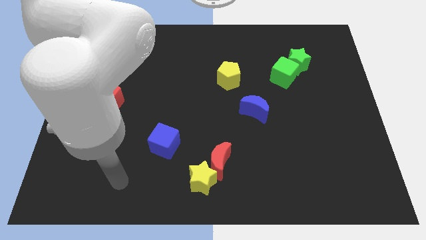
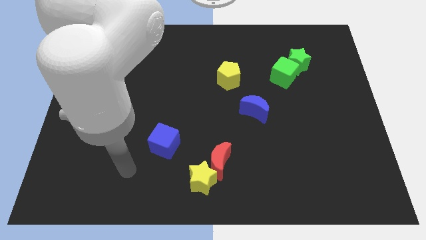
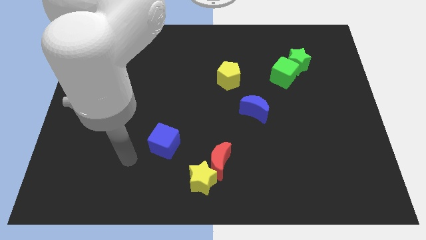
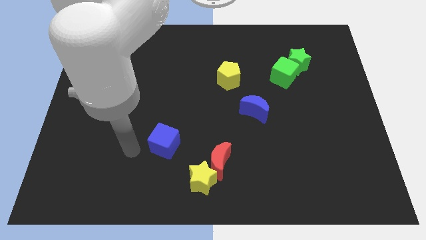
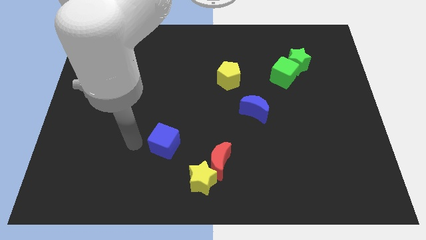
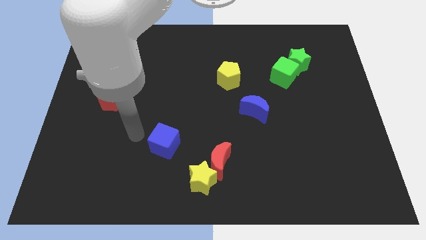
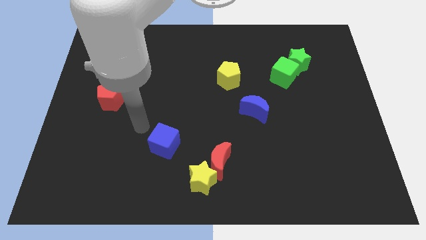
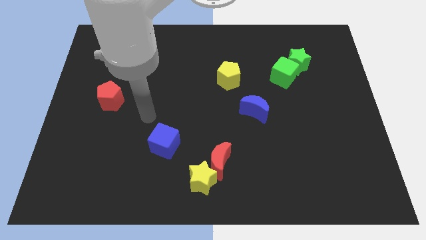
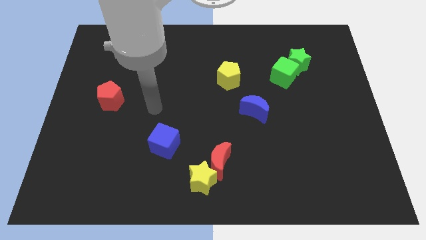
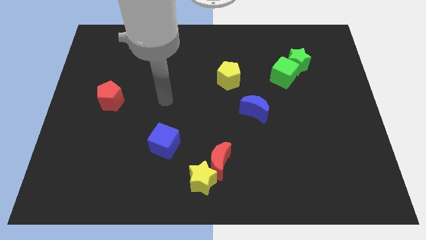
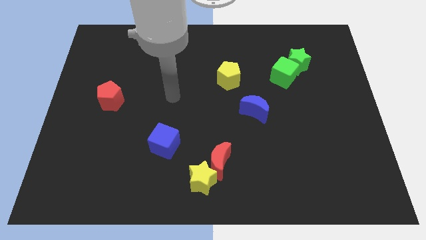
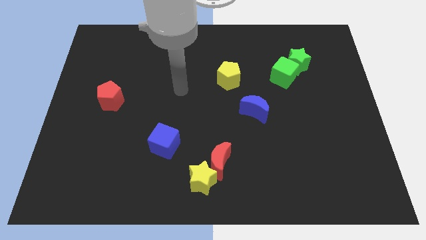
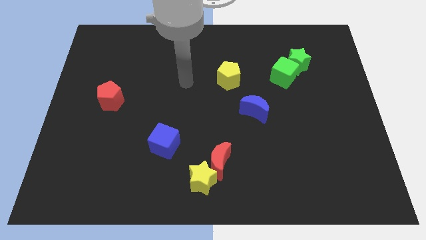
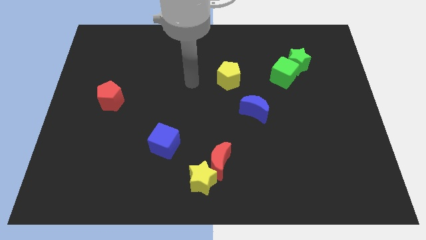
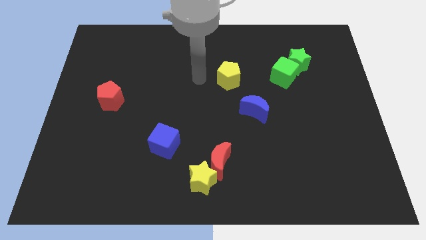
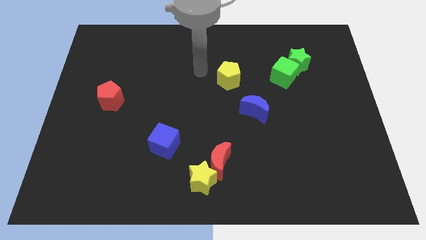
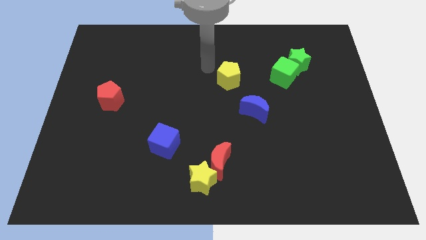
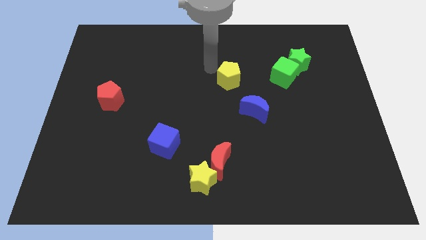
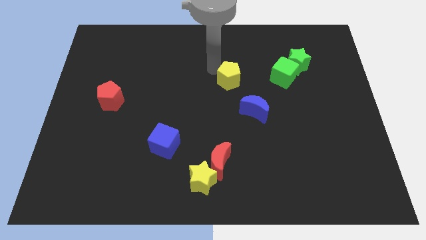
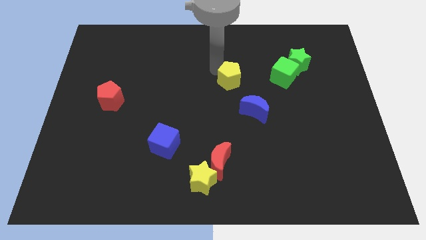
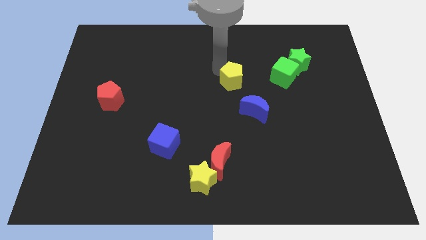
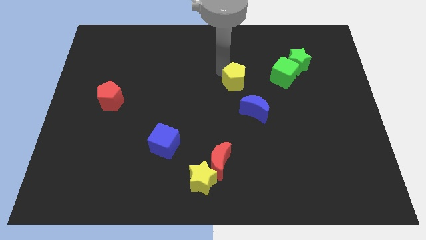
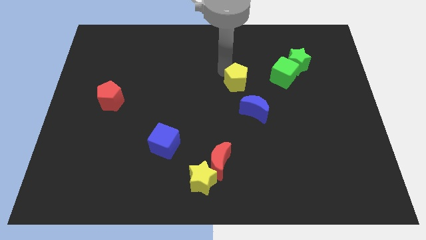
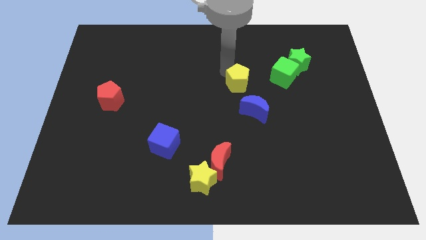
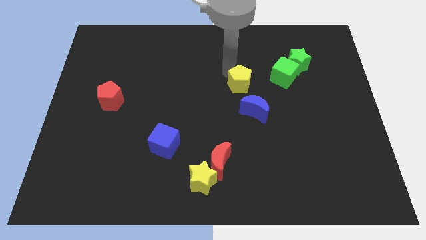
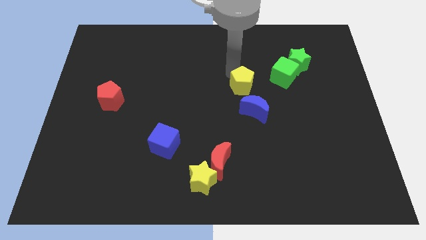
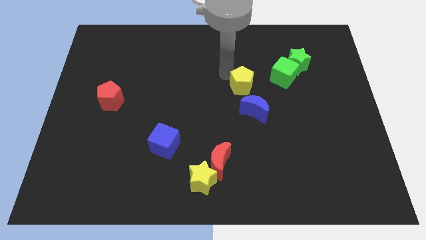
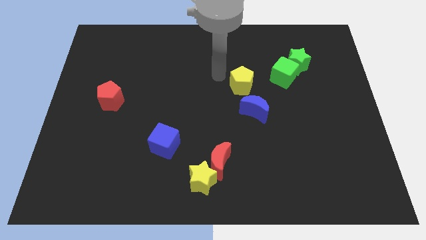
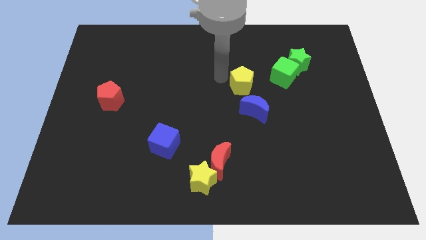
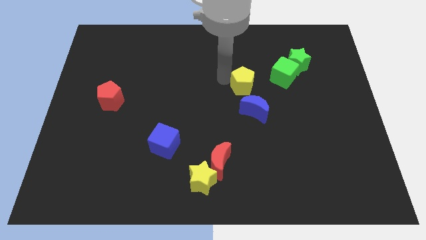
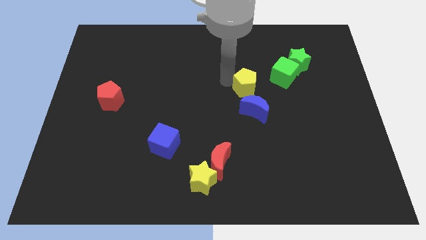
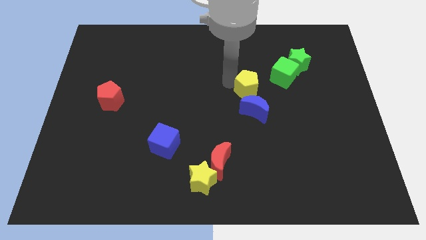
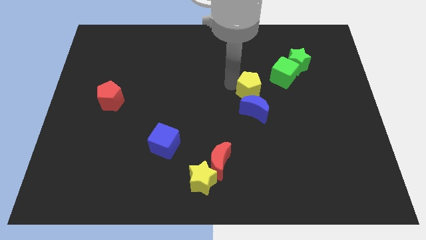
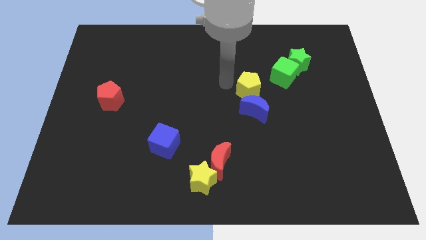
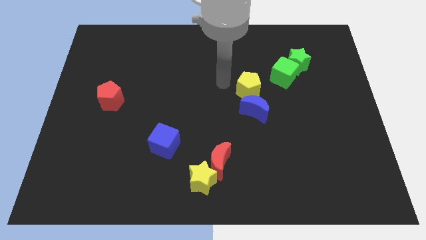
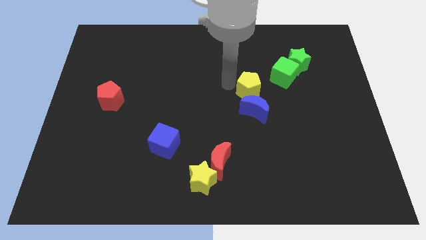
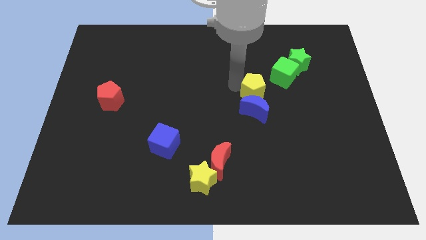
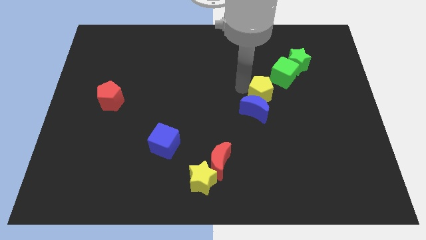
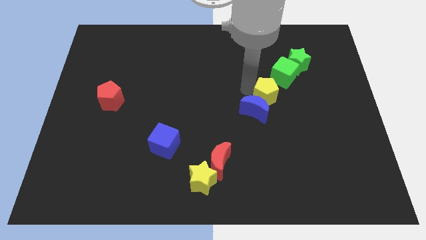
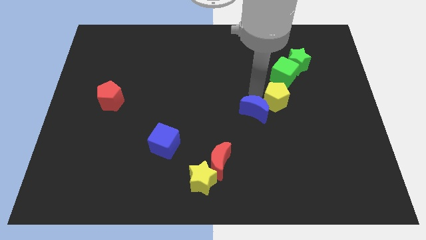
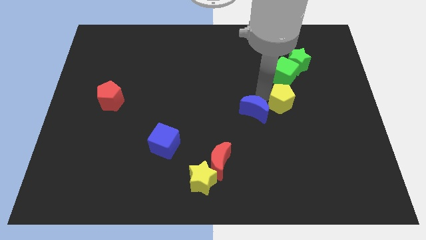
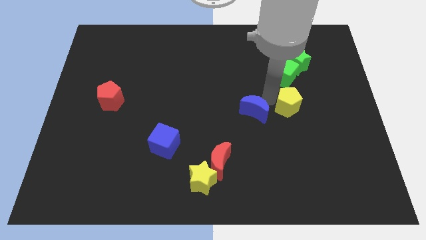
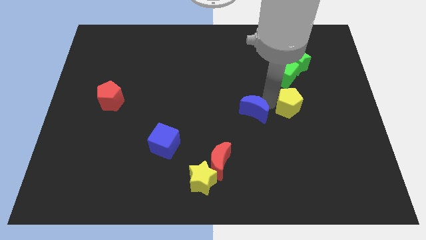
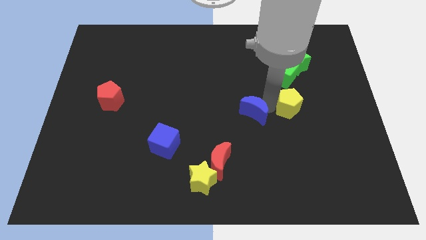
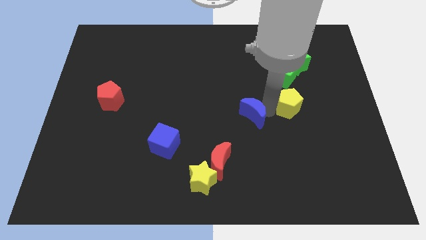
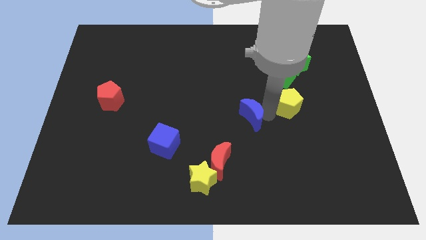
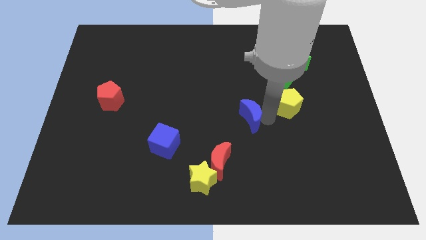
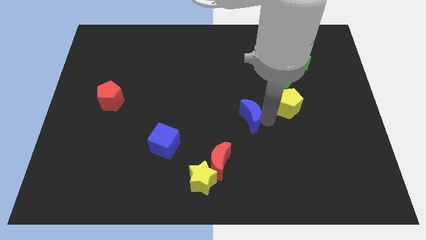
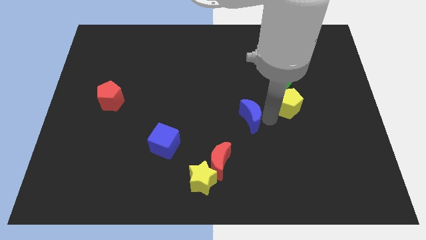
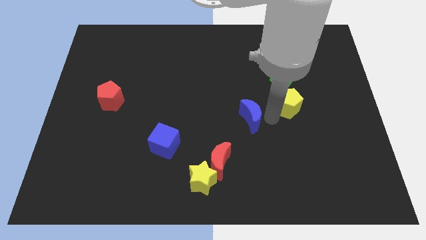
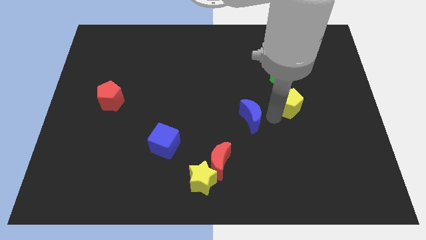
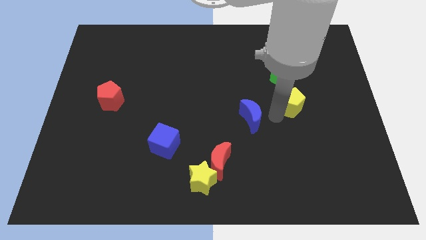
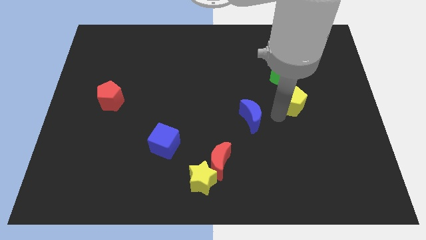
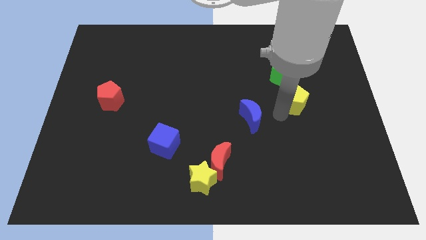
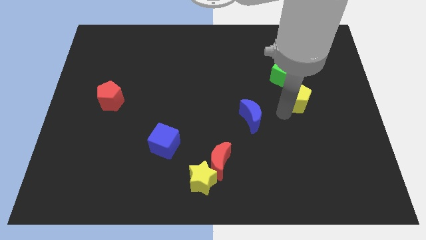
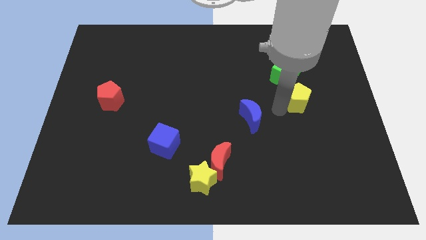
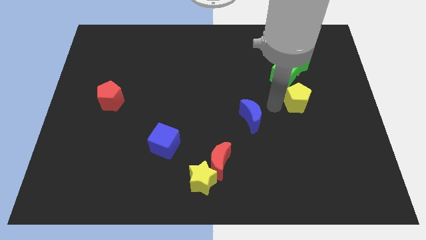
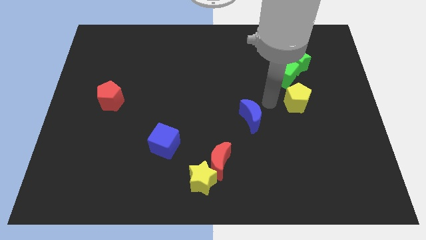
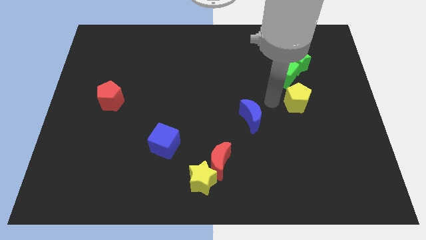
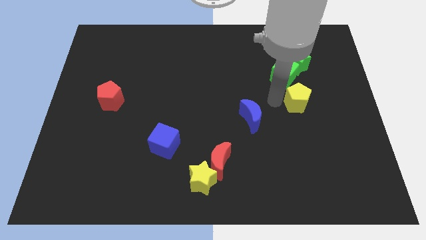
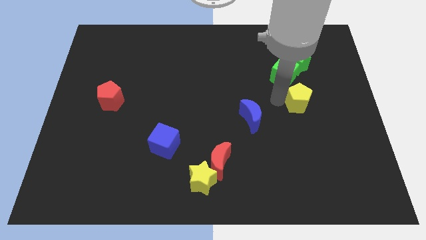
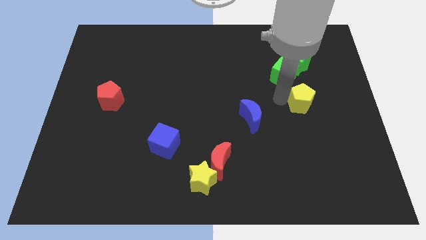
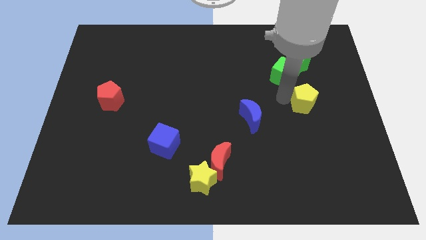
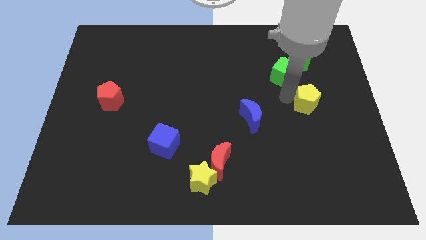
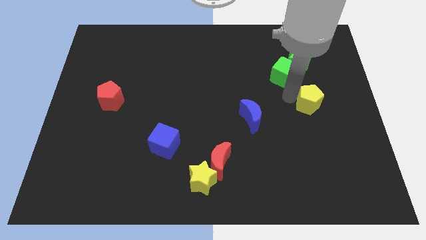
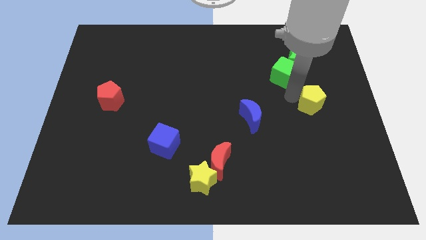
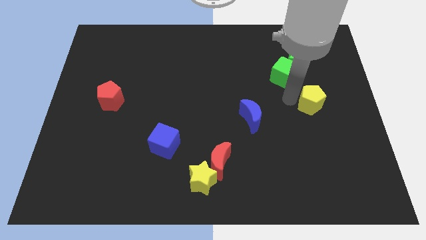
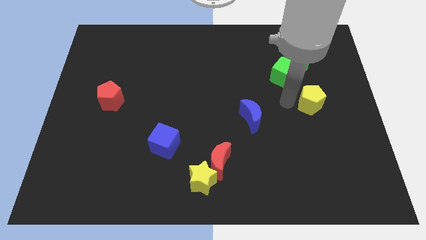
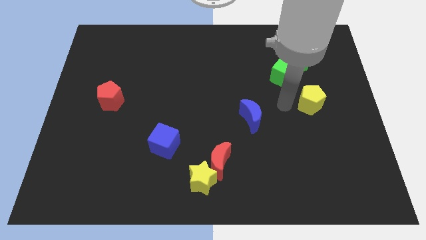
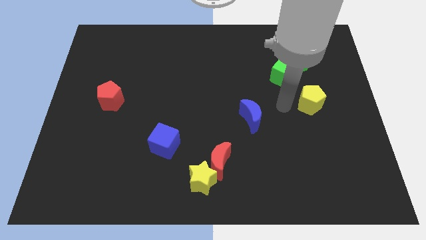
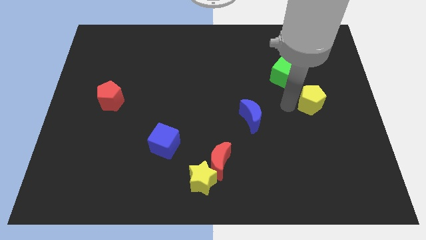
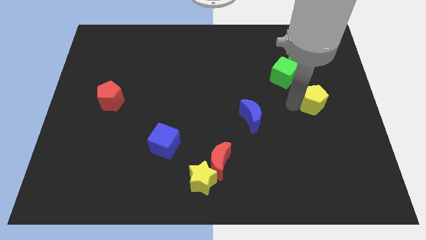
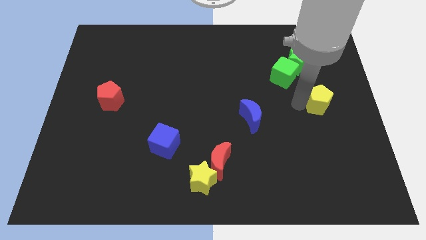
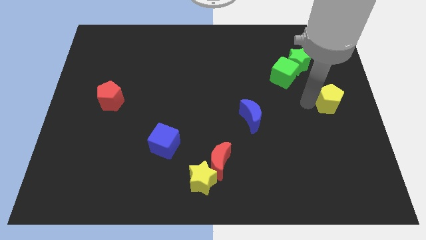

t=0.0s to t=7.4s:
move the yellow pentagon to the right side
